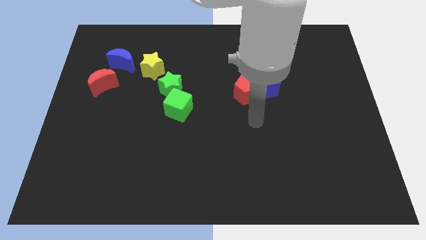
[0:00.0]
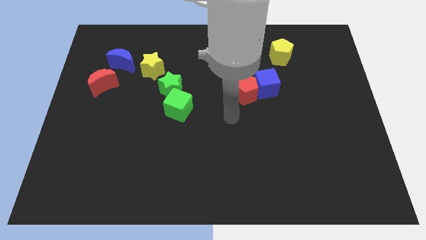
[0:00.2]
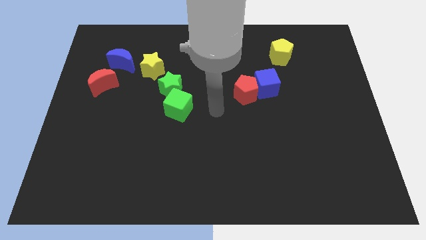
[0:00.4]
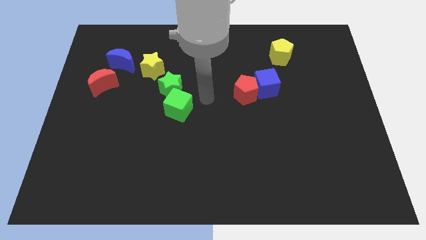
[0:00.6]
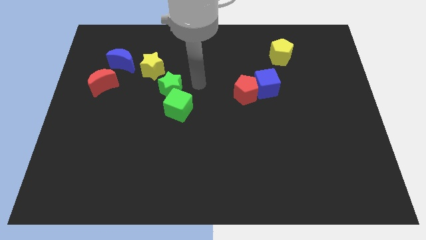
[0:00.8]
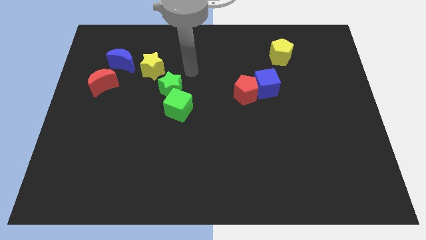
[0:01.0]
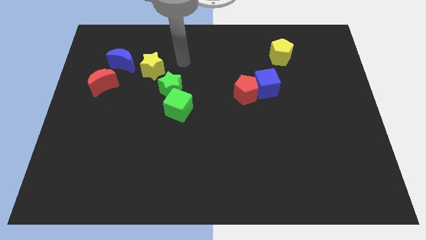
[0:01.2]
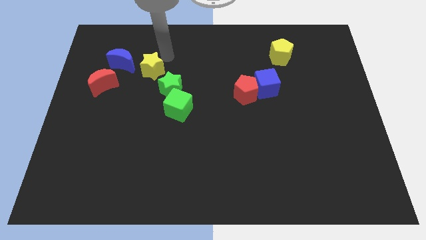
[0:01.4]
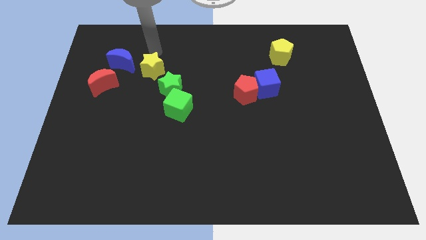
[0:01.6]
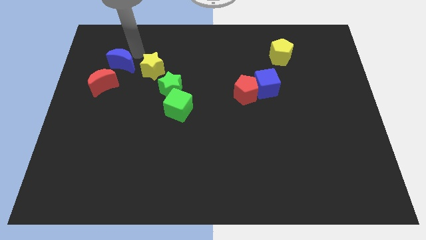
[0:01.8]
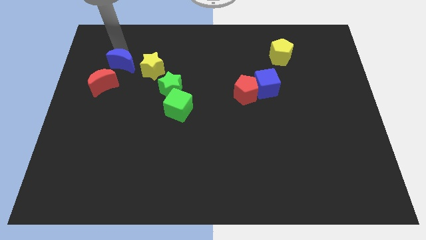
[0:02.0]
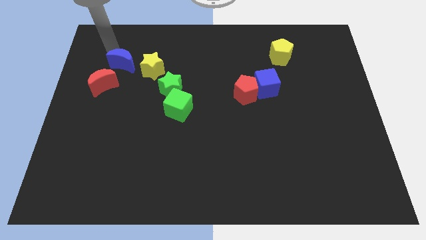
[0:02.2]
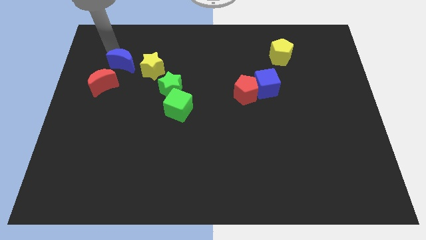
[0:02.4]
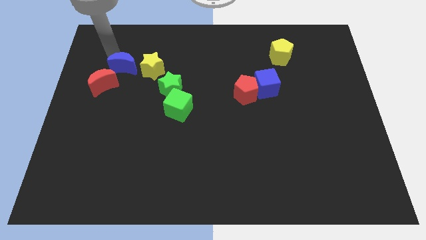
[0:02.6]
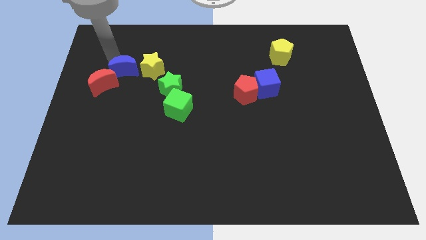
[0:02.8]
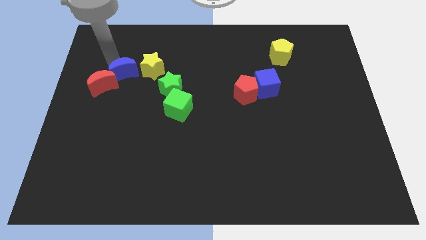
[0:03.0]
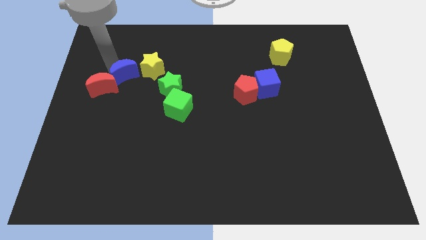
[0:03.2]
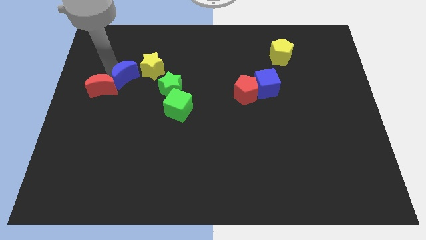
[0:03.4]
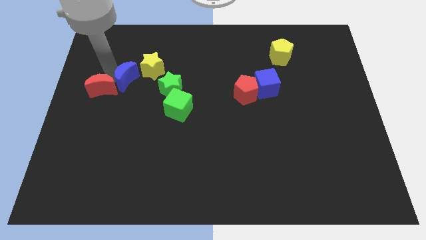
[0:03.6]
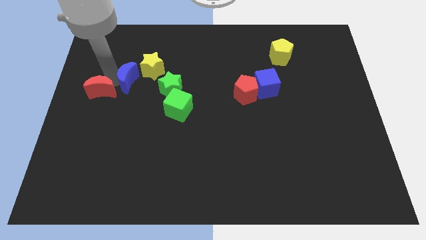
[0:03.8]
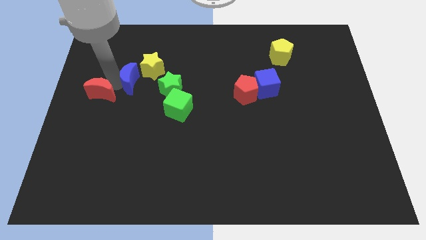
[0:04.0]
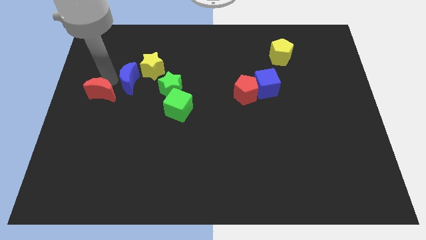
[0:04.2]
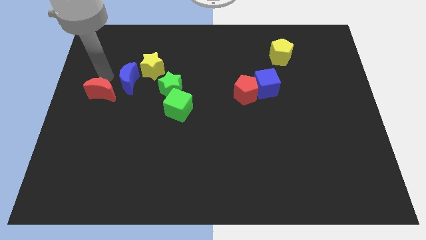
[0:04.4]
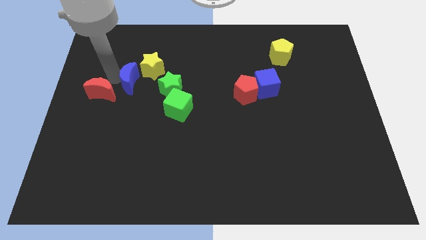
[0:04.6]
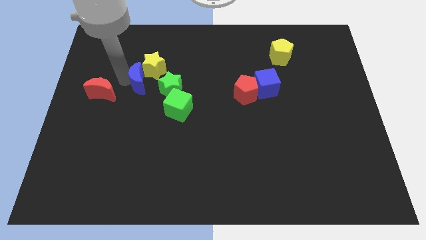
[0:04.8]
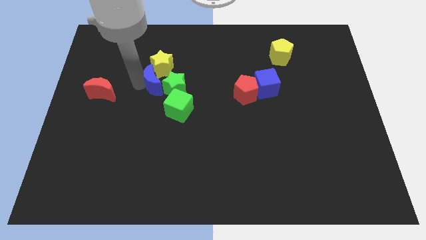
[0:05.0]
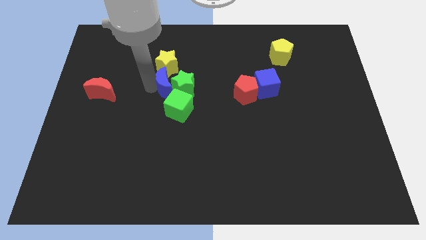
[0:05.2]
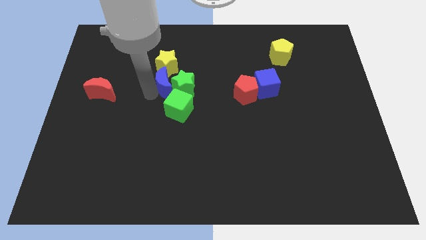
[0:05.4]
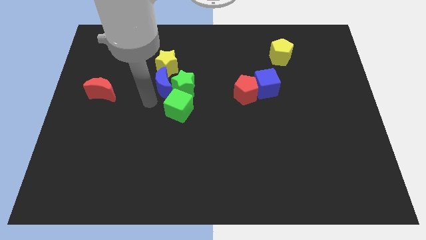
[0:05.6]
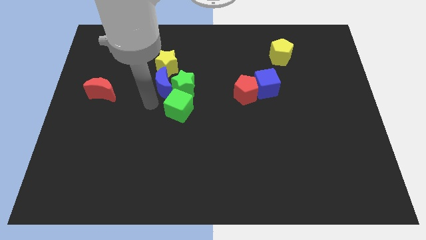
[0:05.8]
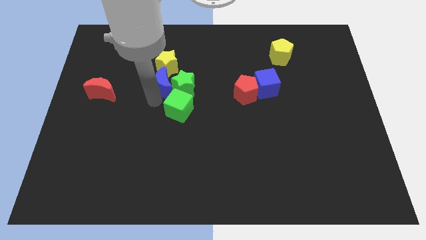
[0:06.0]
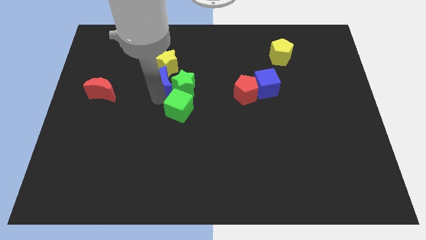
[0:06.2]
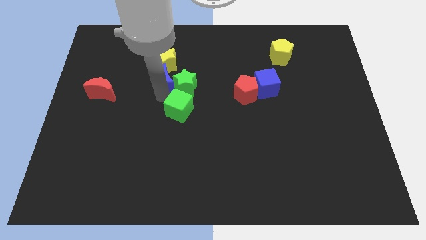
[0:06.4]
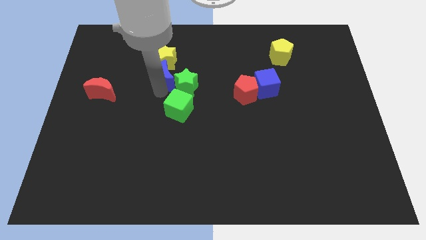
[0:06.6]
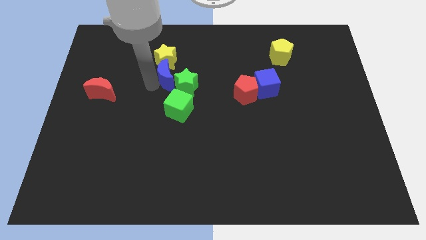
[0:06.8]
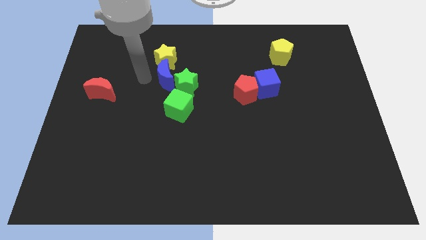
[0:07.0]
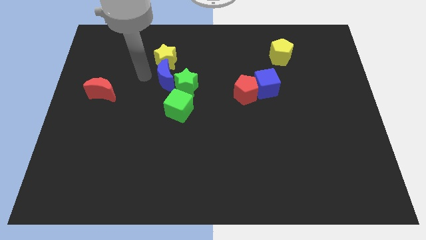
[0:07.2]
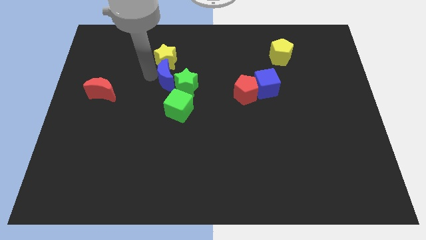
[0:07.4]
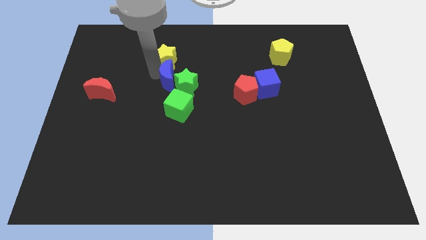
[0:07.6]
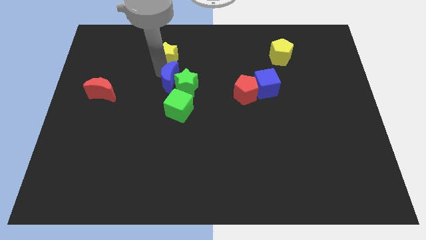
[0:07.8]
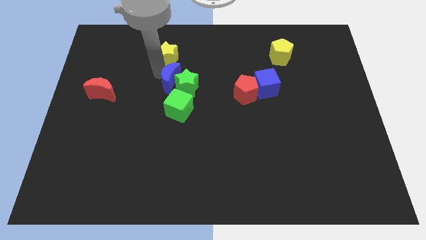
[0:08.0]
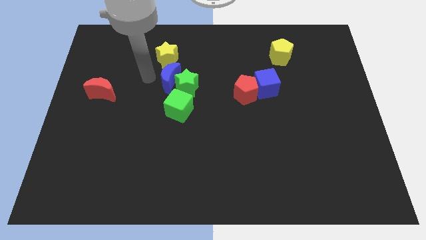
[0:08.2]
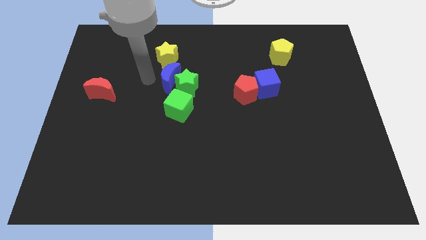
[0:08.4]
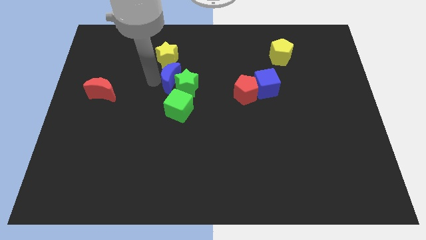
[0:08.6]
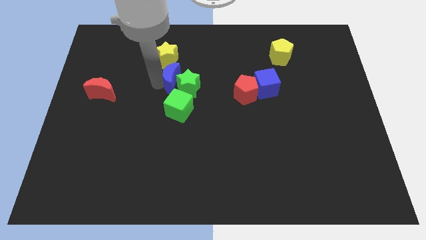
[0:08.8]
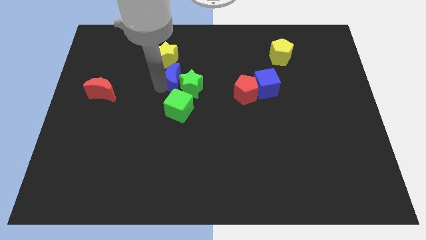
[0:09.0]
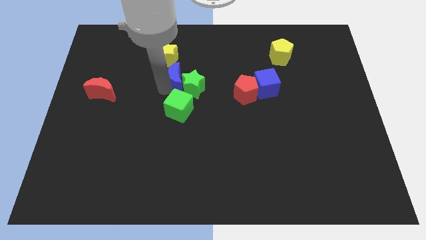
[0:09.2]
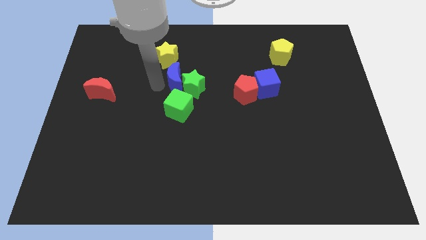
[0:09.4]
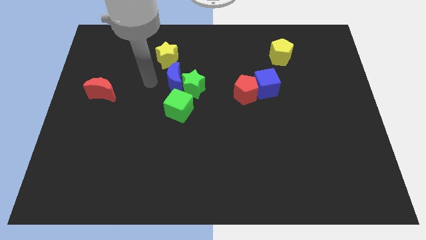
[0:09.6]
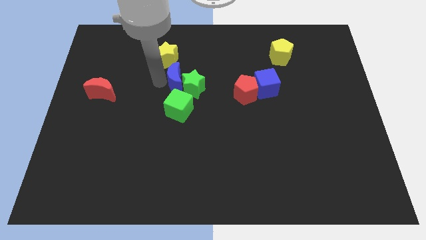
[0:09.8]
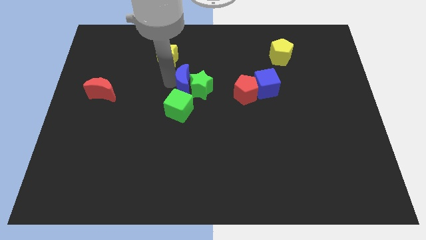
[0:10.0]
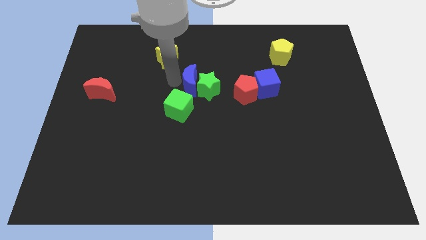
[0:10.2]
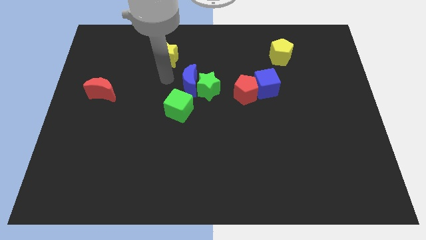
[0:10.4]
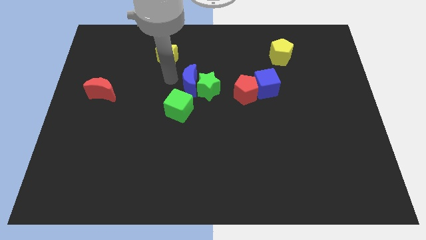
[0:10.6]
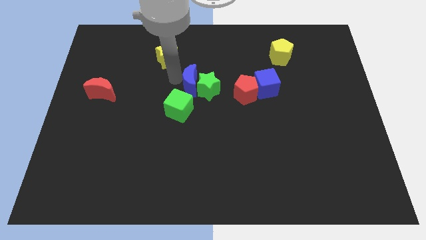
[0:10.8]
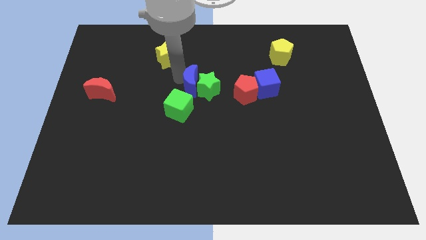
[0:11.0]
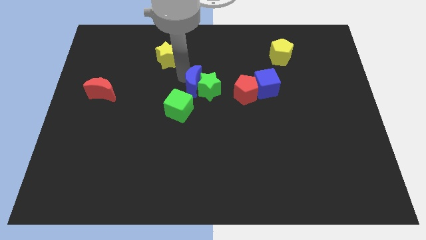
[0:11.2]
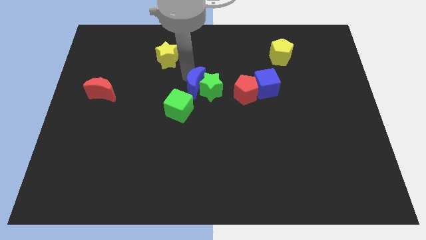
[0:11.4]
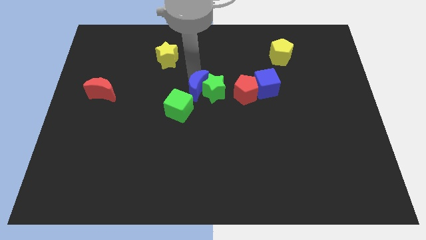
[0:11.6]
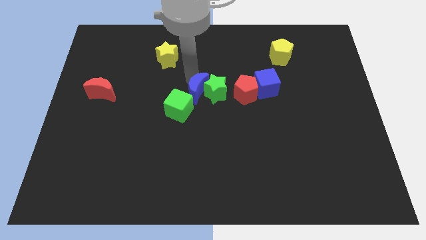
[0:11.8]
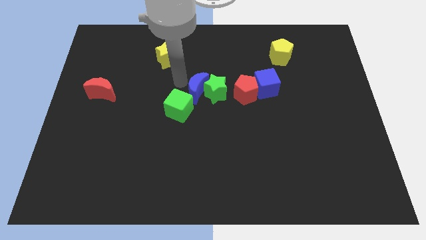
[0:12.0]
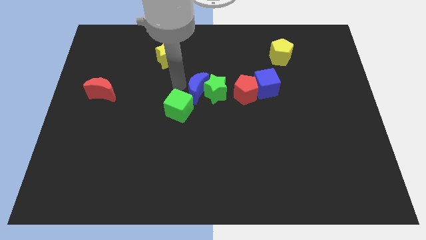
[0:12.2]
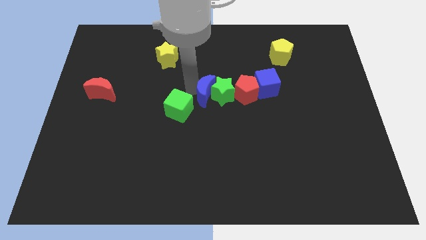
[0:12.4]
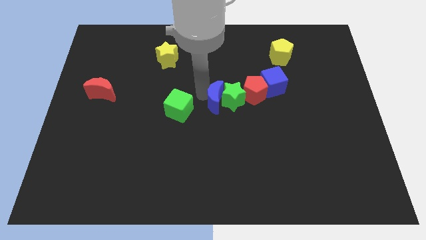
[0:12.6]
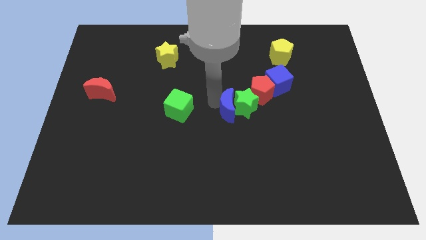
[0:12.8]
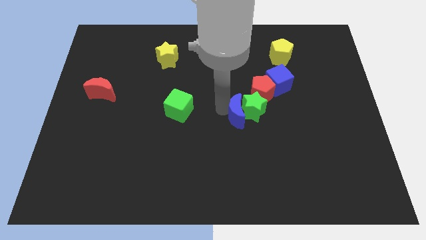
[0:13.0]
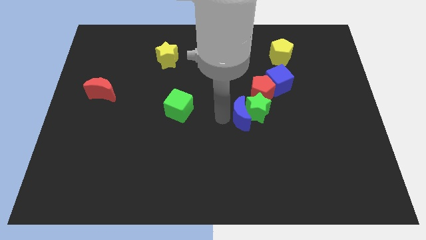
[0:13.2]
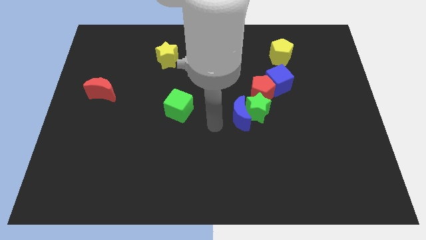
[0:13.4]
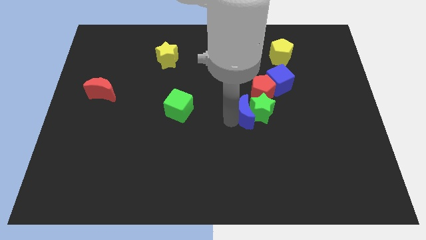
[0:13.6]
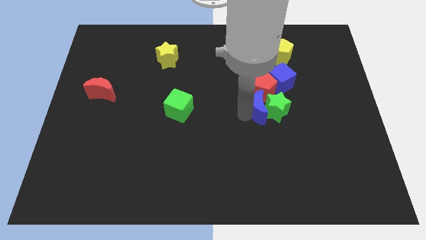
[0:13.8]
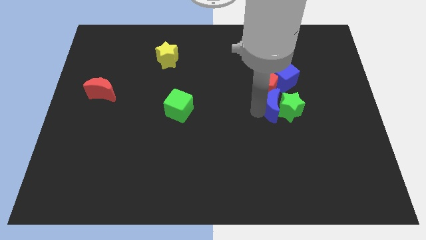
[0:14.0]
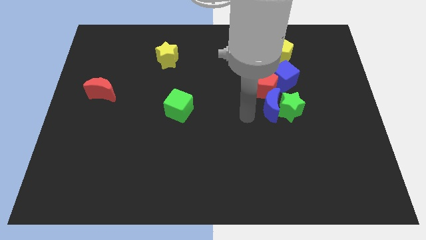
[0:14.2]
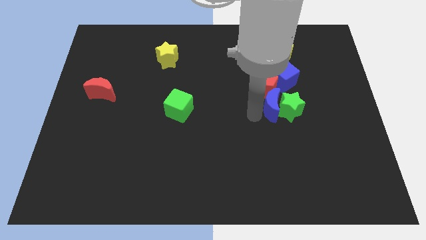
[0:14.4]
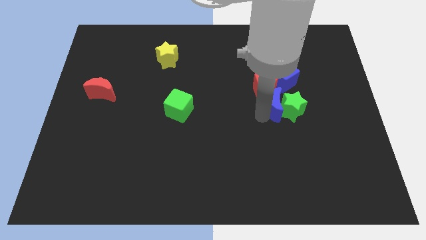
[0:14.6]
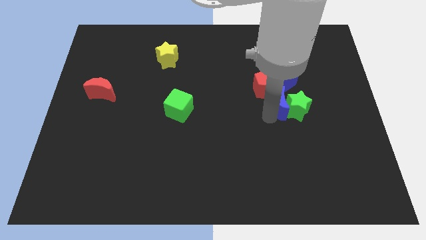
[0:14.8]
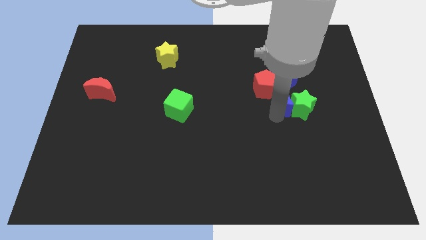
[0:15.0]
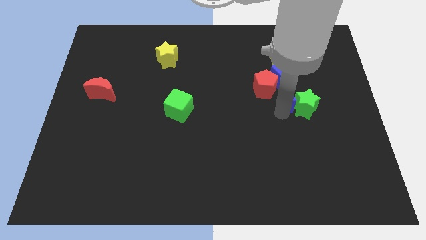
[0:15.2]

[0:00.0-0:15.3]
put the blue moon to the bottom right side of the blue cube
